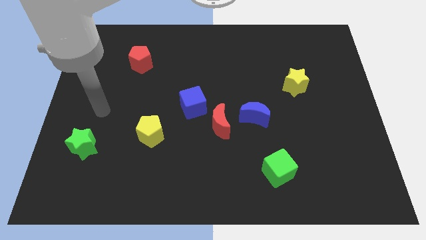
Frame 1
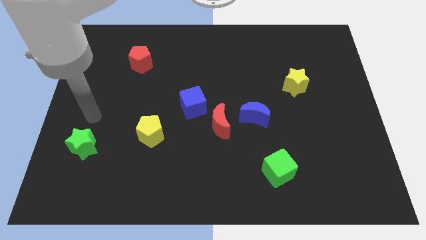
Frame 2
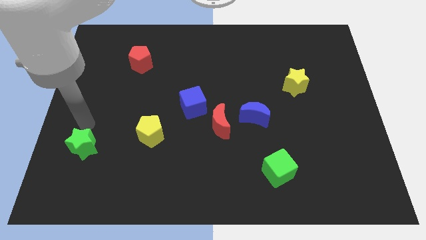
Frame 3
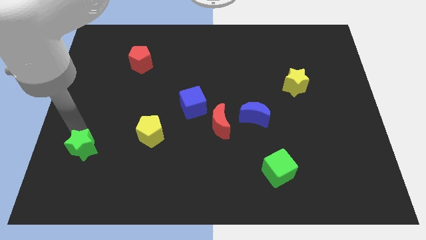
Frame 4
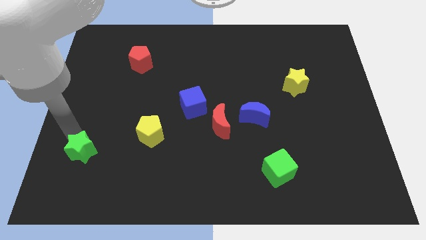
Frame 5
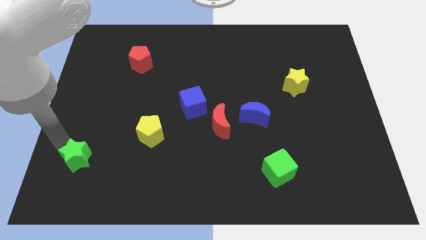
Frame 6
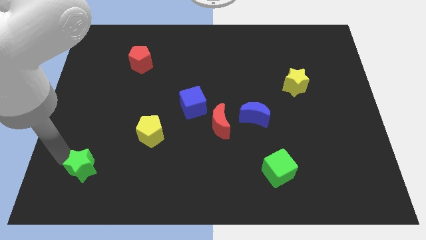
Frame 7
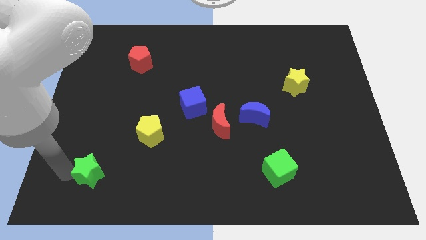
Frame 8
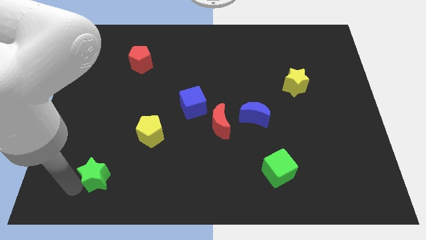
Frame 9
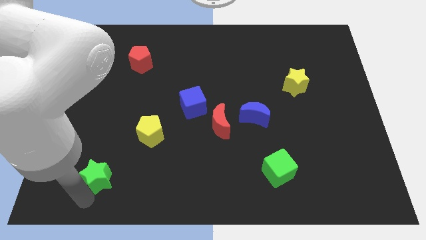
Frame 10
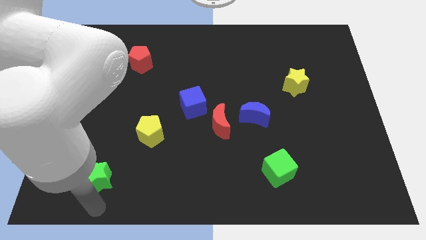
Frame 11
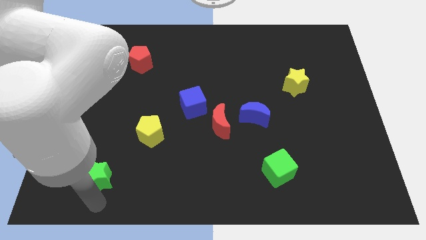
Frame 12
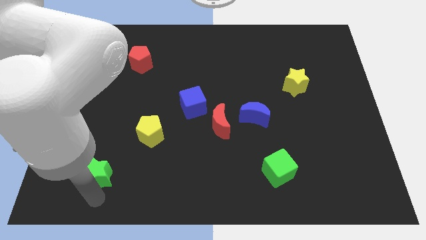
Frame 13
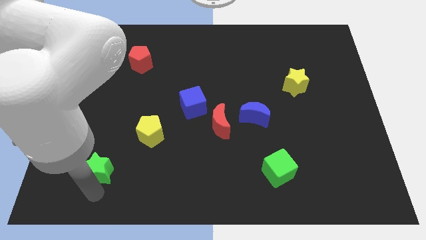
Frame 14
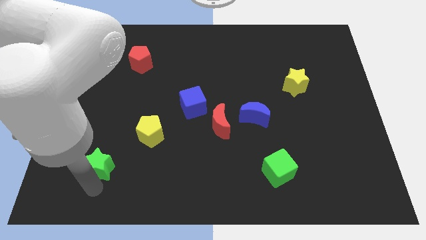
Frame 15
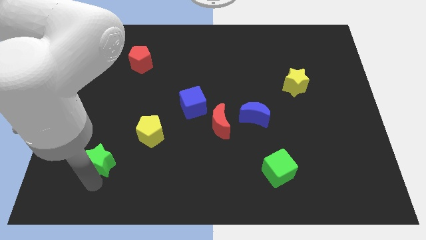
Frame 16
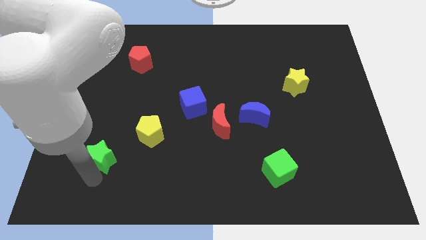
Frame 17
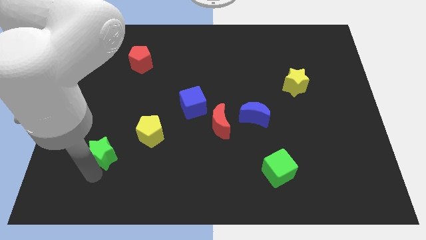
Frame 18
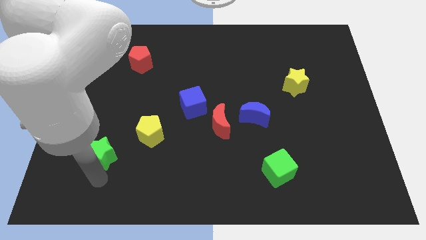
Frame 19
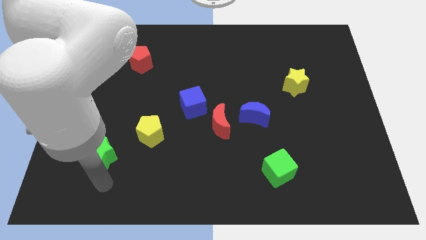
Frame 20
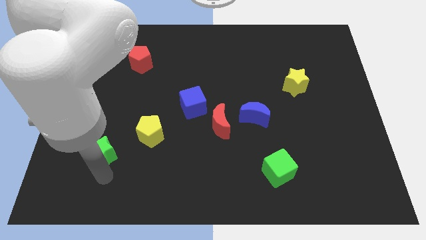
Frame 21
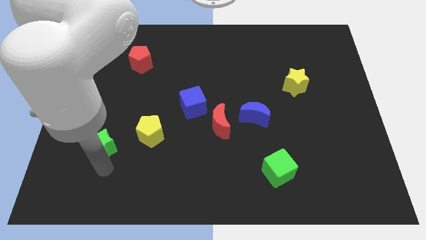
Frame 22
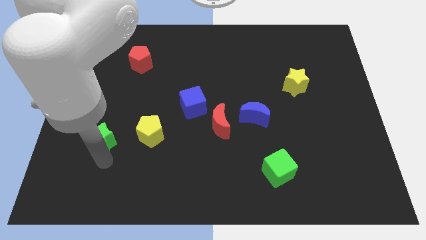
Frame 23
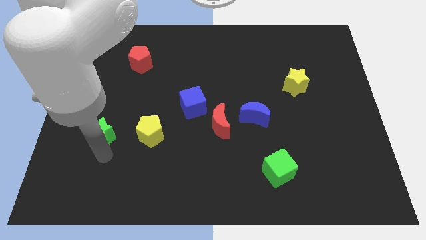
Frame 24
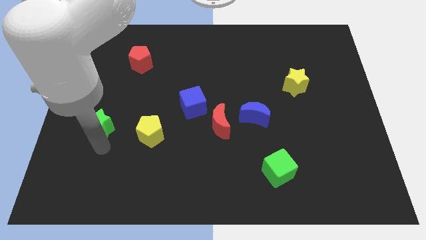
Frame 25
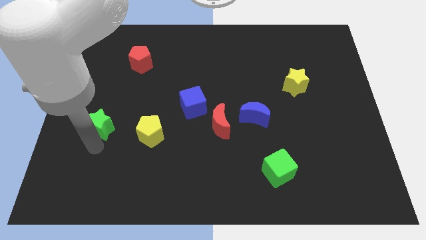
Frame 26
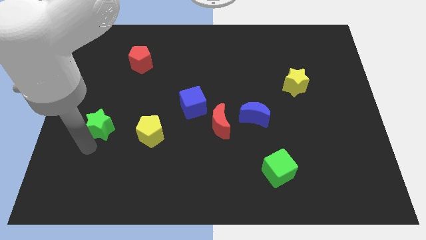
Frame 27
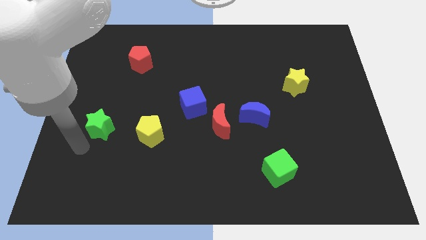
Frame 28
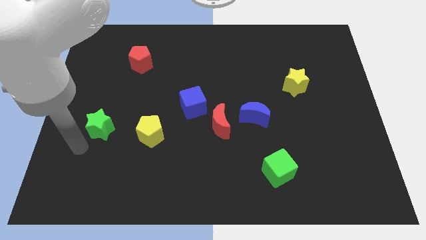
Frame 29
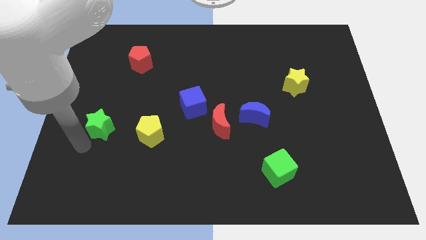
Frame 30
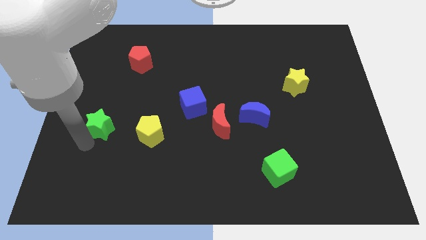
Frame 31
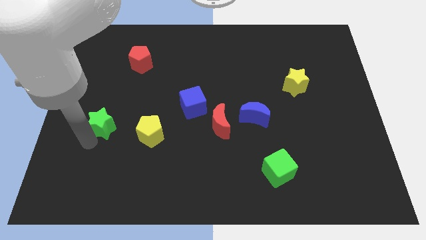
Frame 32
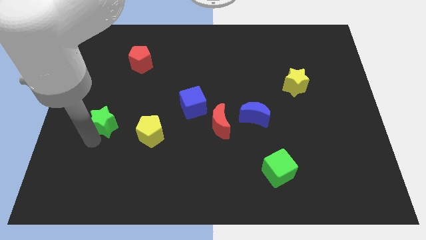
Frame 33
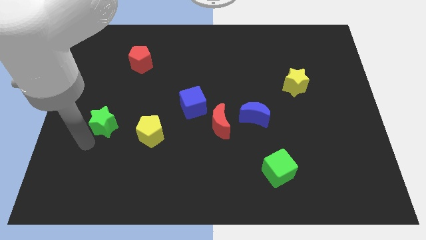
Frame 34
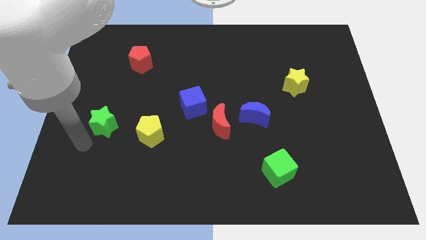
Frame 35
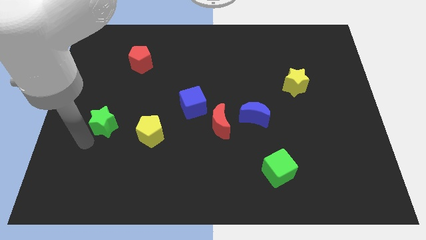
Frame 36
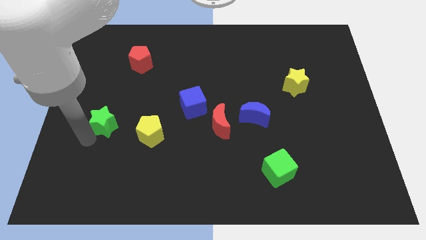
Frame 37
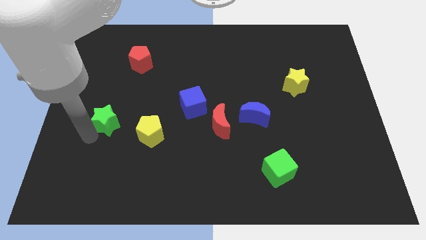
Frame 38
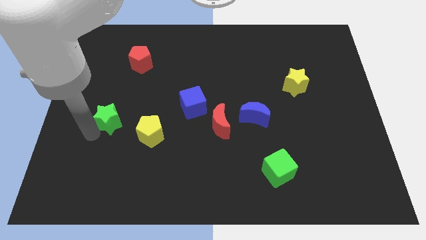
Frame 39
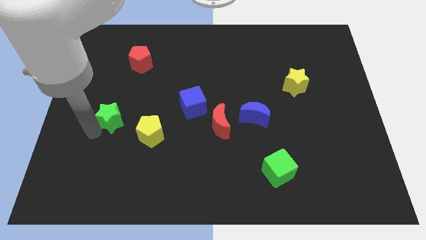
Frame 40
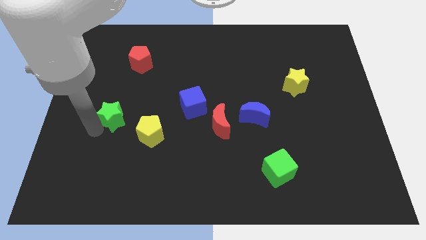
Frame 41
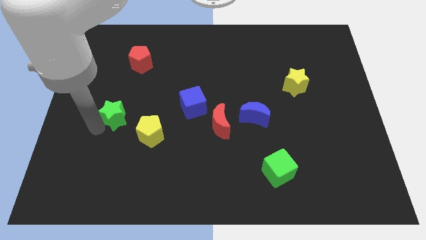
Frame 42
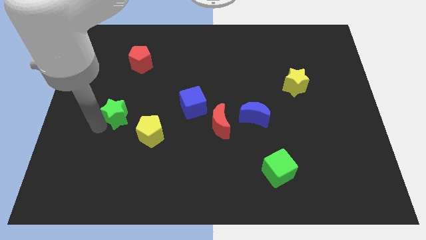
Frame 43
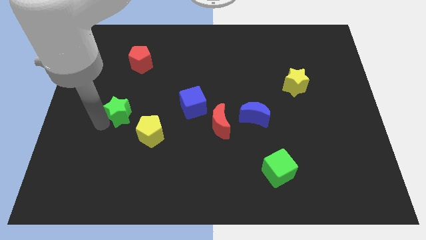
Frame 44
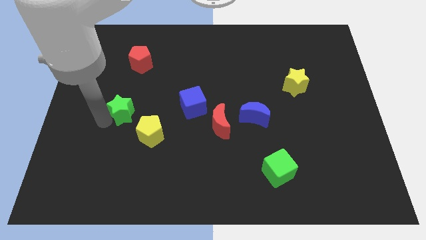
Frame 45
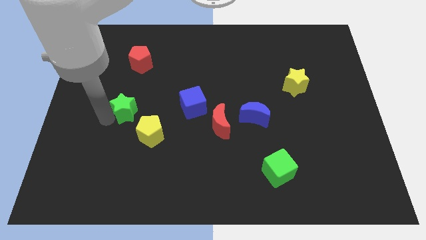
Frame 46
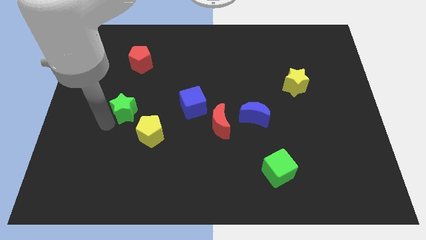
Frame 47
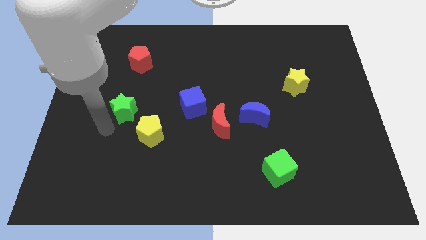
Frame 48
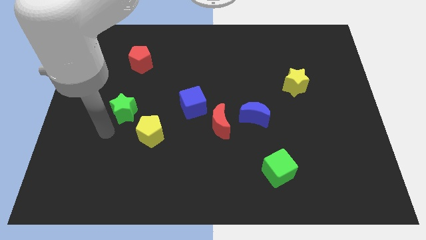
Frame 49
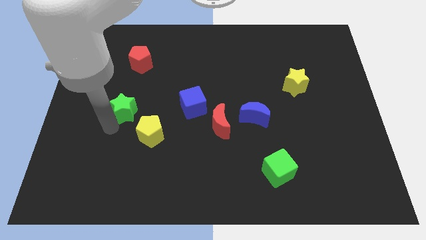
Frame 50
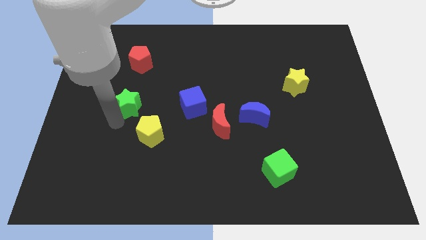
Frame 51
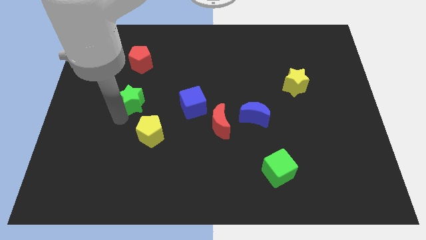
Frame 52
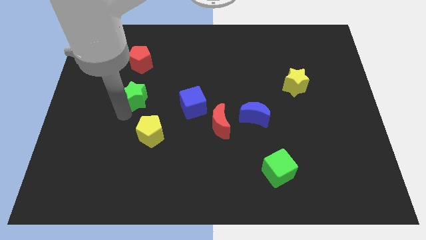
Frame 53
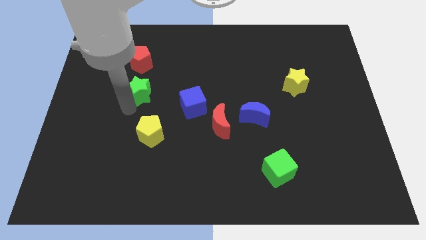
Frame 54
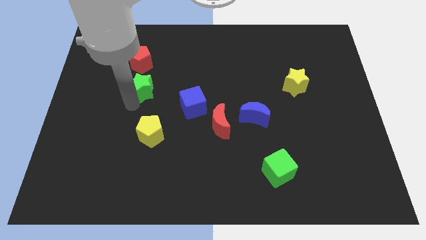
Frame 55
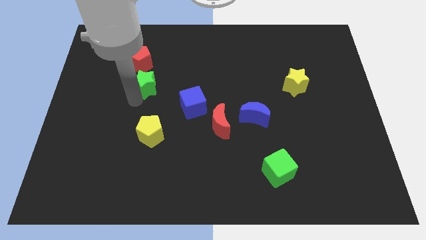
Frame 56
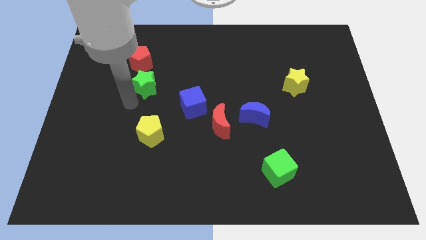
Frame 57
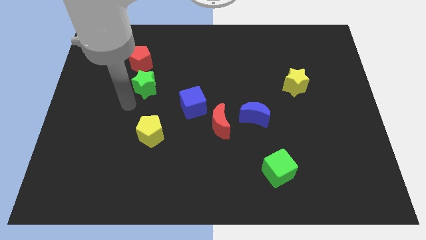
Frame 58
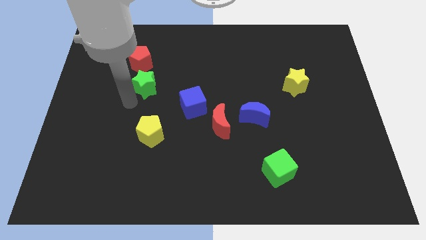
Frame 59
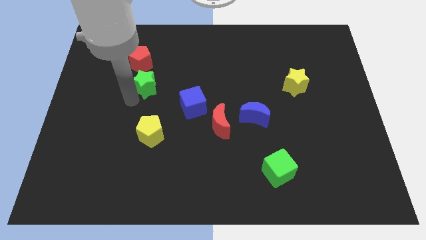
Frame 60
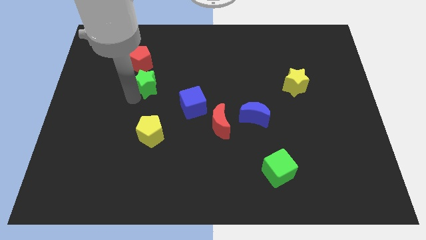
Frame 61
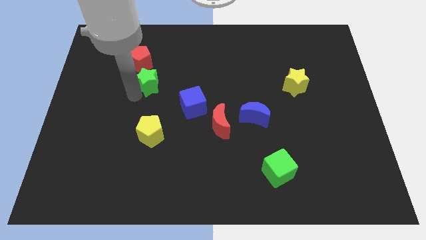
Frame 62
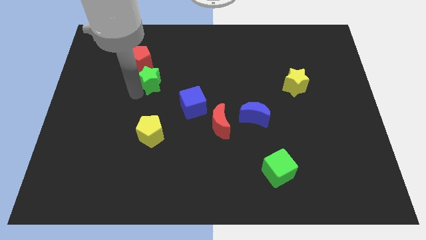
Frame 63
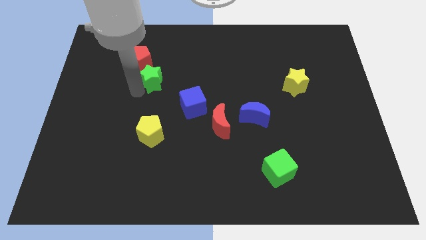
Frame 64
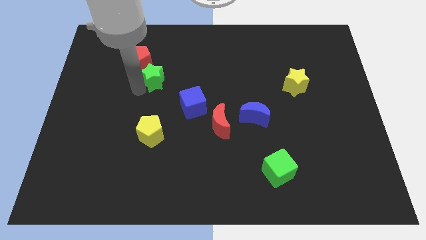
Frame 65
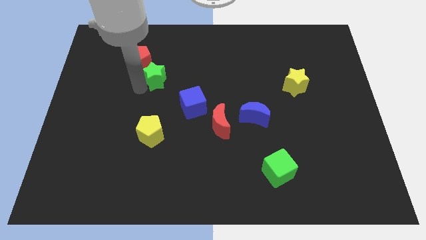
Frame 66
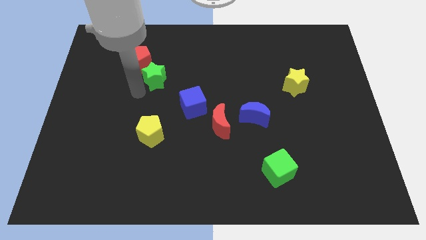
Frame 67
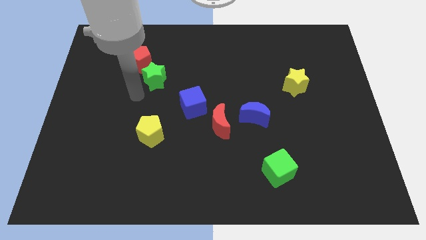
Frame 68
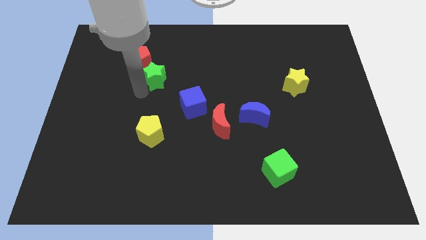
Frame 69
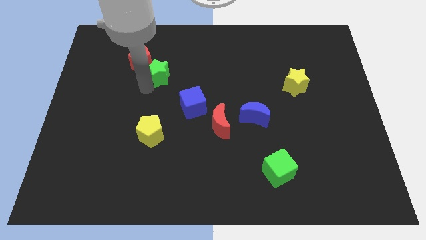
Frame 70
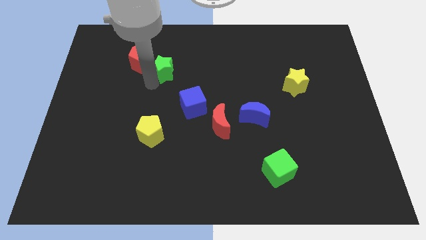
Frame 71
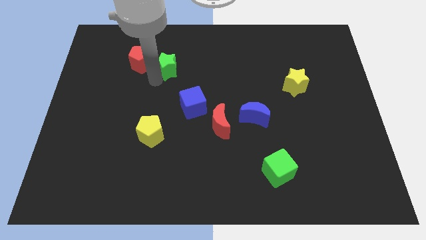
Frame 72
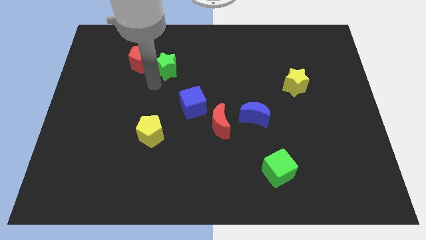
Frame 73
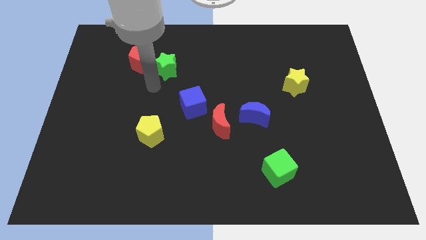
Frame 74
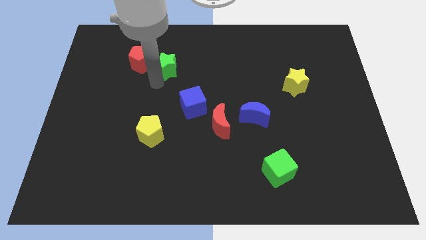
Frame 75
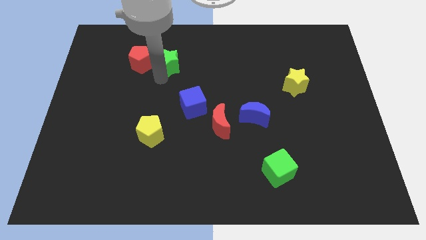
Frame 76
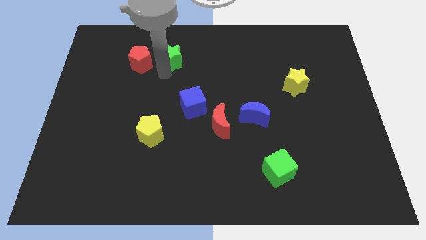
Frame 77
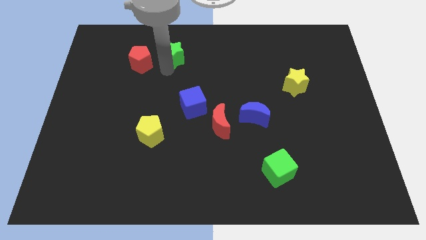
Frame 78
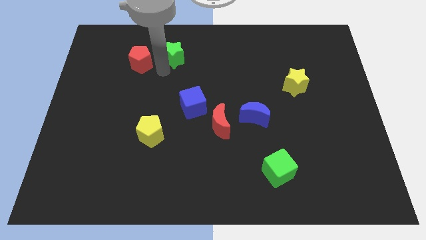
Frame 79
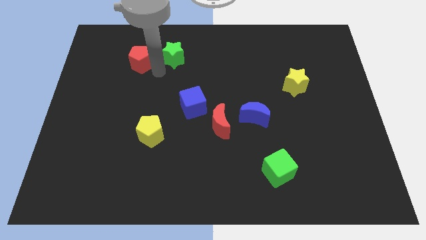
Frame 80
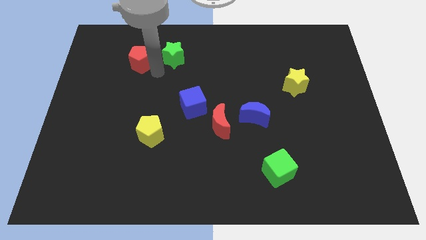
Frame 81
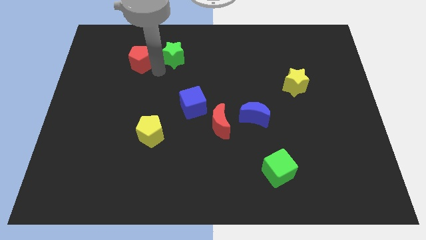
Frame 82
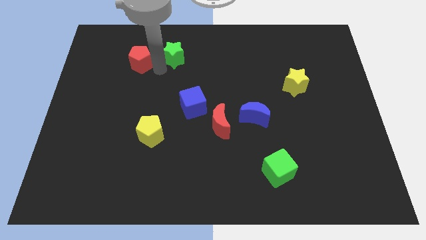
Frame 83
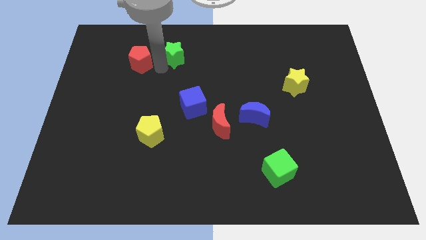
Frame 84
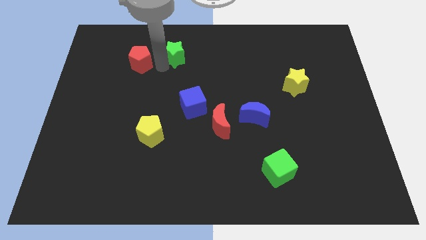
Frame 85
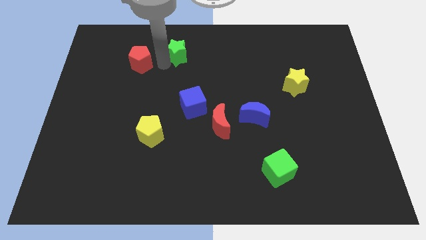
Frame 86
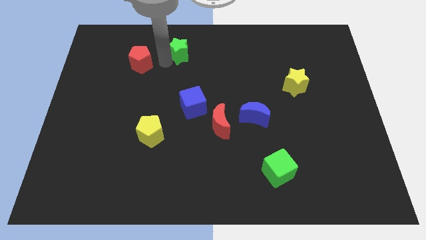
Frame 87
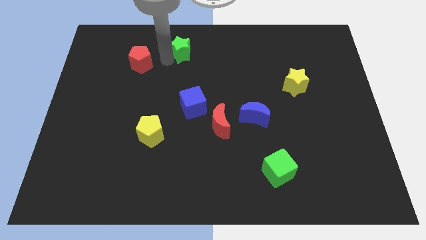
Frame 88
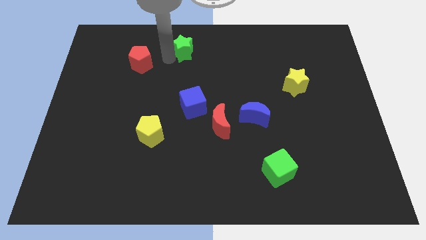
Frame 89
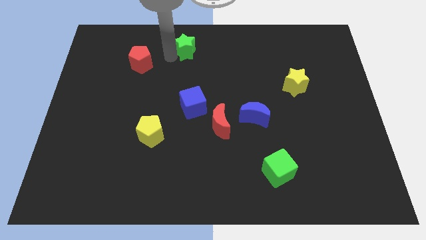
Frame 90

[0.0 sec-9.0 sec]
put the green star to the towards your base
